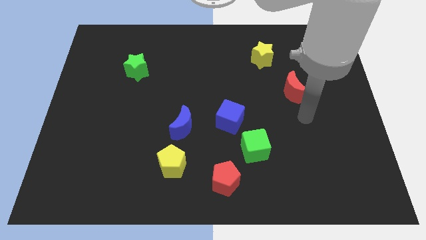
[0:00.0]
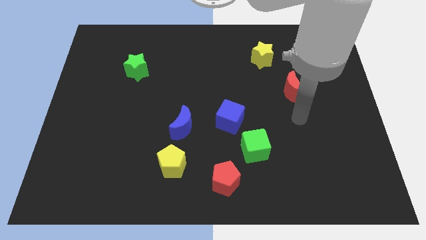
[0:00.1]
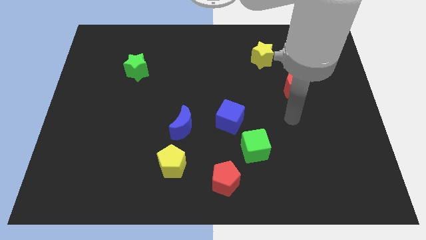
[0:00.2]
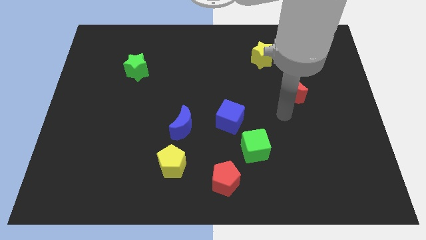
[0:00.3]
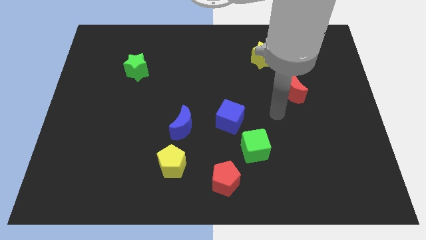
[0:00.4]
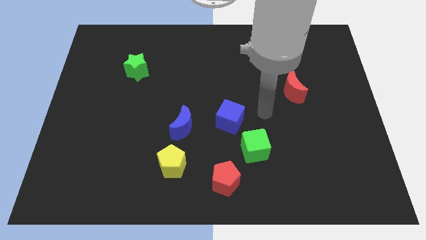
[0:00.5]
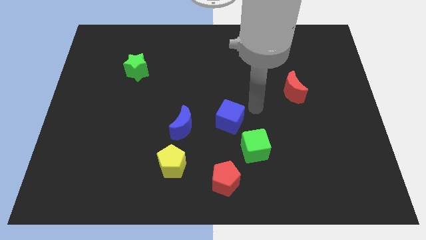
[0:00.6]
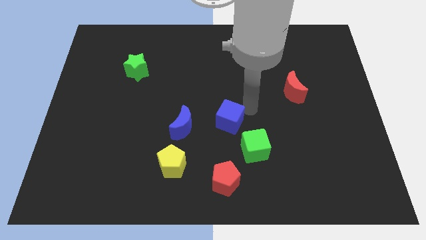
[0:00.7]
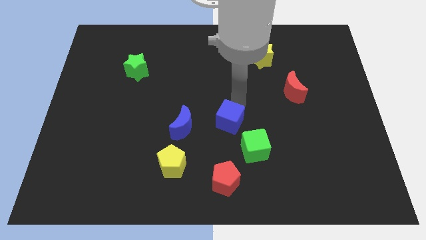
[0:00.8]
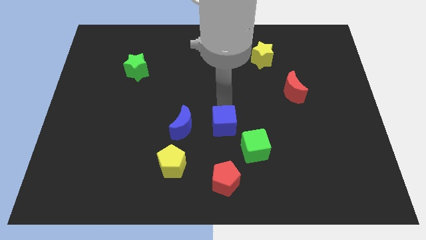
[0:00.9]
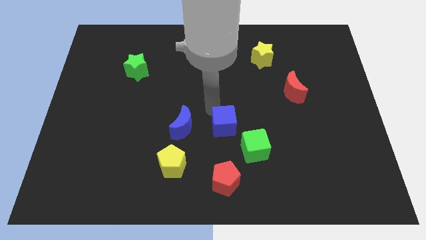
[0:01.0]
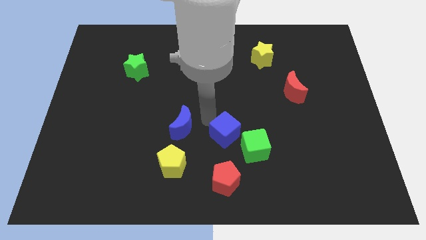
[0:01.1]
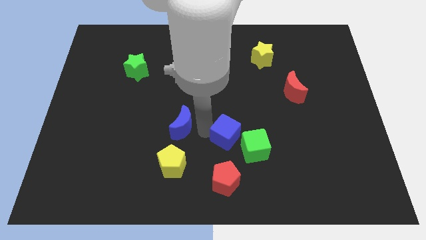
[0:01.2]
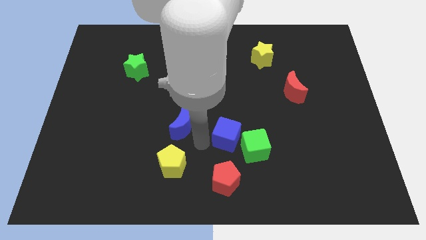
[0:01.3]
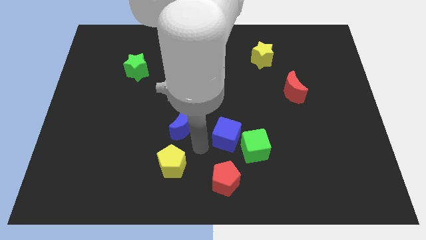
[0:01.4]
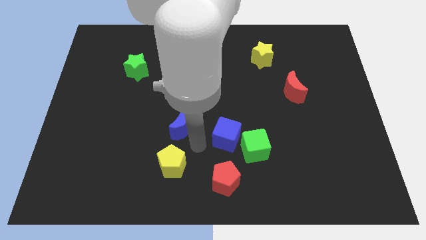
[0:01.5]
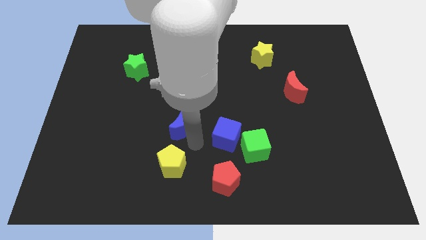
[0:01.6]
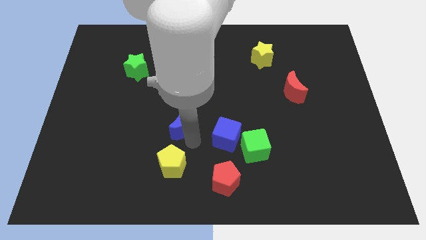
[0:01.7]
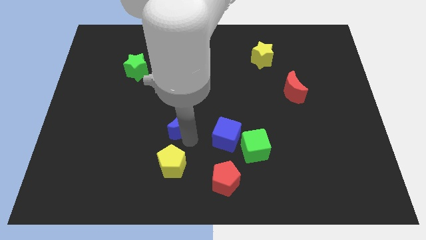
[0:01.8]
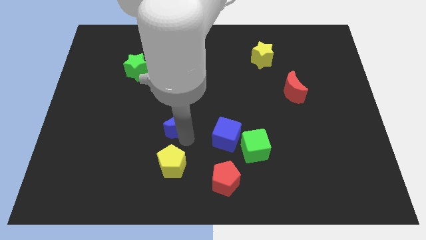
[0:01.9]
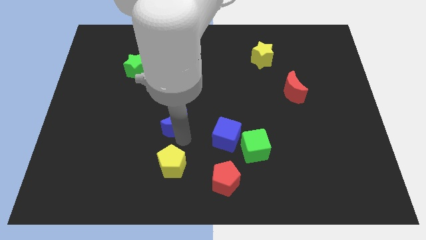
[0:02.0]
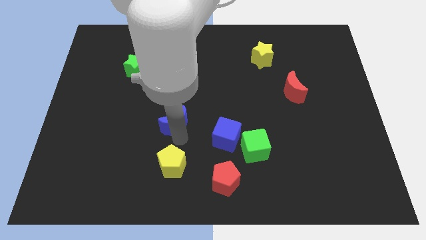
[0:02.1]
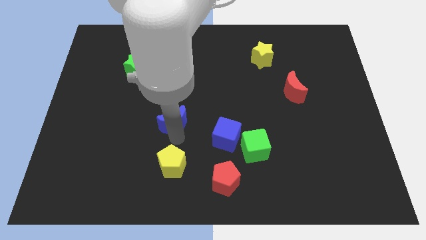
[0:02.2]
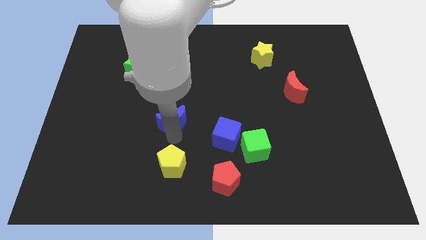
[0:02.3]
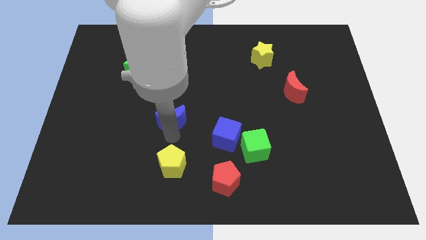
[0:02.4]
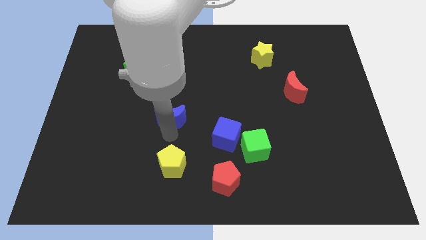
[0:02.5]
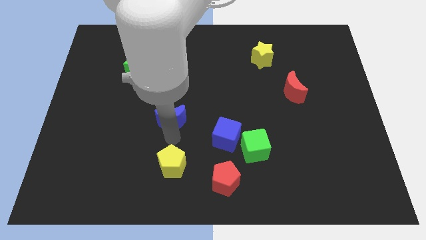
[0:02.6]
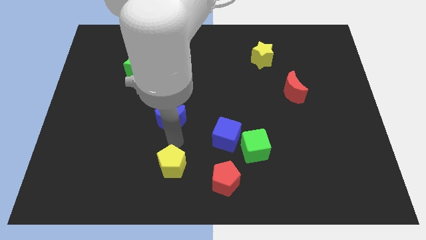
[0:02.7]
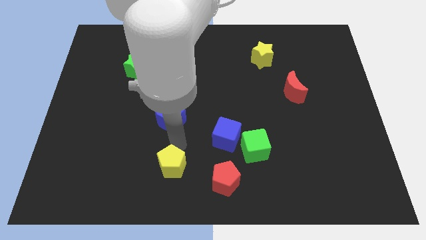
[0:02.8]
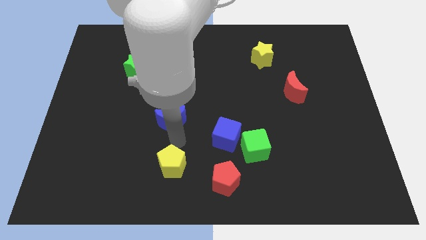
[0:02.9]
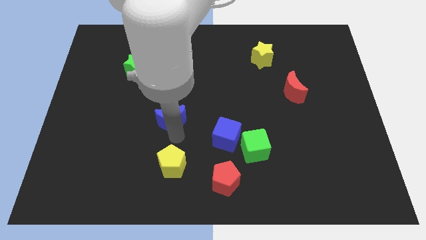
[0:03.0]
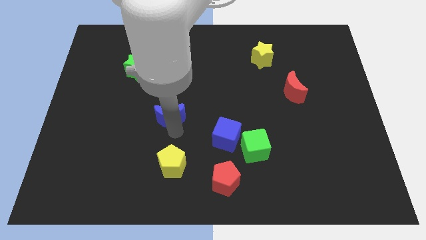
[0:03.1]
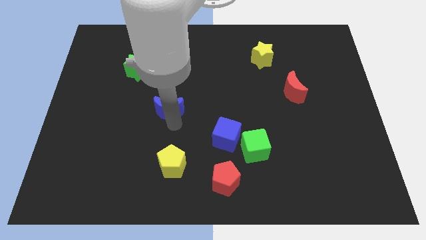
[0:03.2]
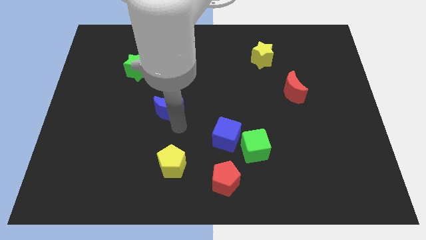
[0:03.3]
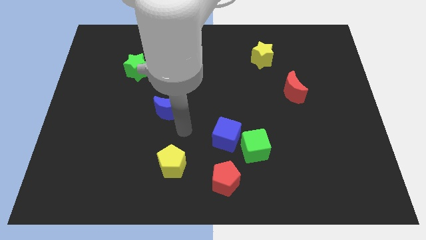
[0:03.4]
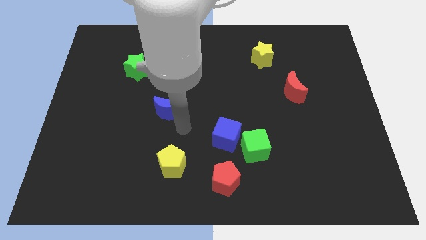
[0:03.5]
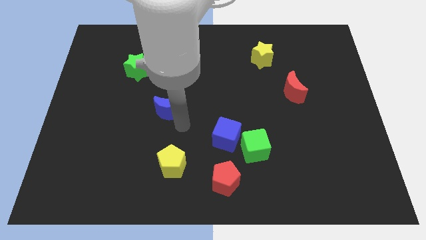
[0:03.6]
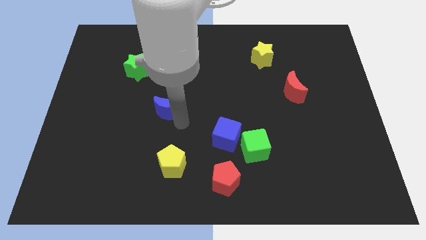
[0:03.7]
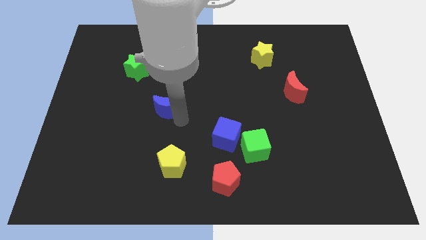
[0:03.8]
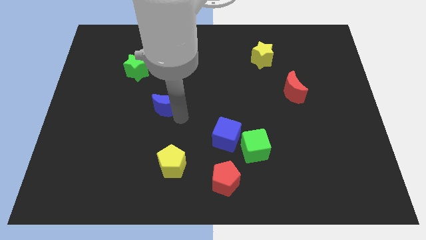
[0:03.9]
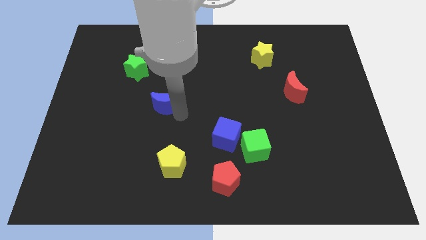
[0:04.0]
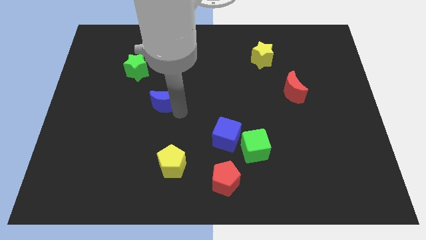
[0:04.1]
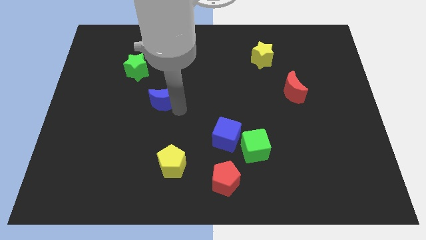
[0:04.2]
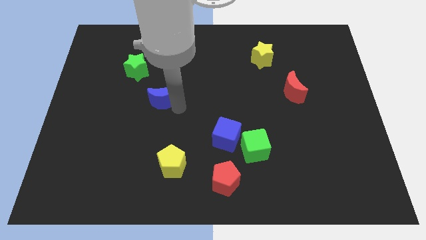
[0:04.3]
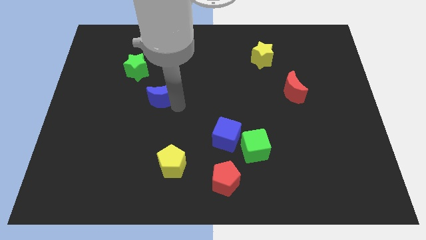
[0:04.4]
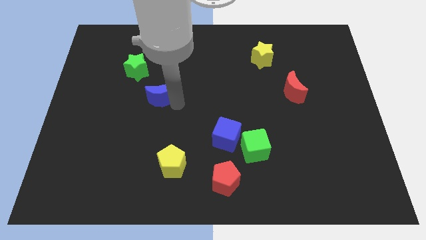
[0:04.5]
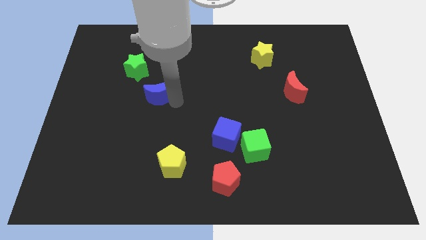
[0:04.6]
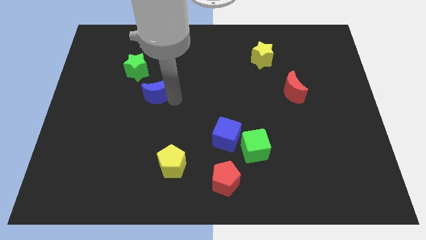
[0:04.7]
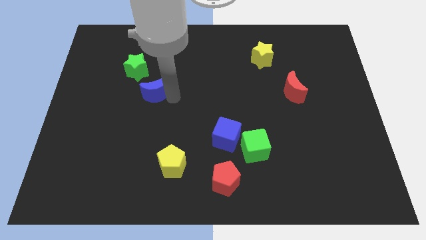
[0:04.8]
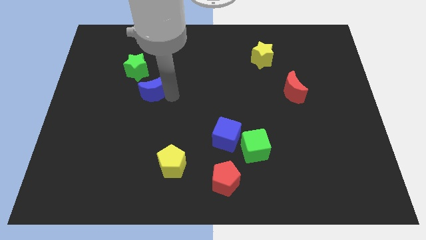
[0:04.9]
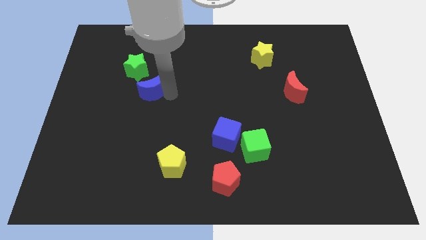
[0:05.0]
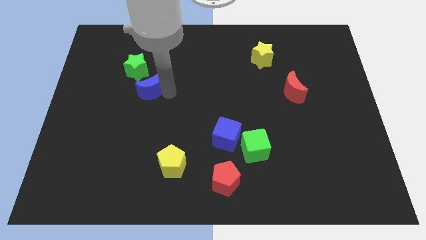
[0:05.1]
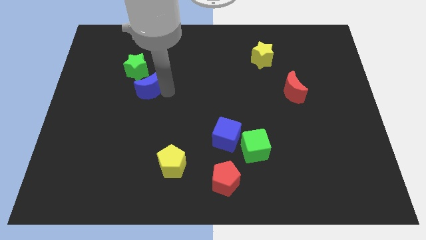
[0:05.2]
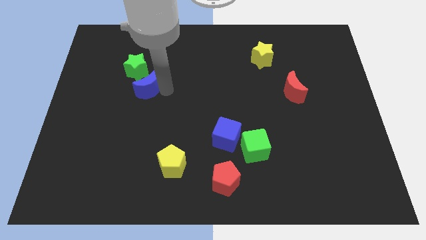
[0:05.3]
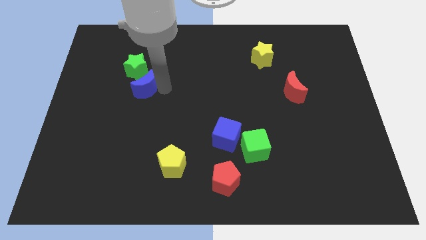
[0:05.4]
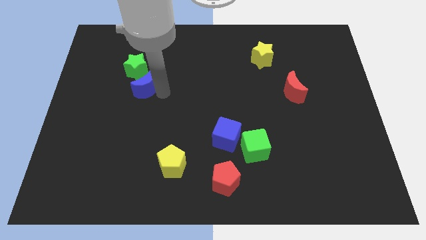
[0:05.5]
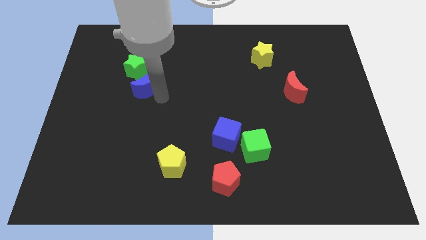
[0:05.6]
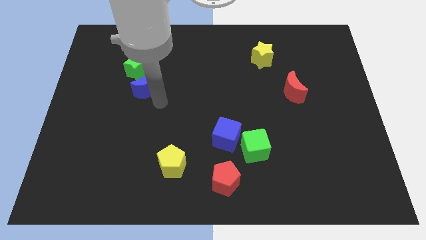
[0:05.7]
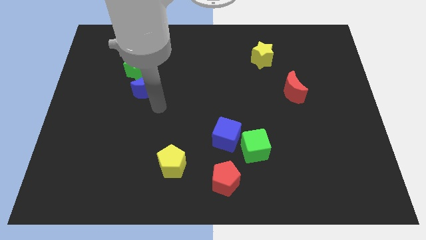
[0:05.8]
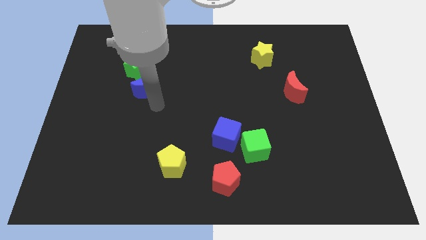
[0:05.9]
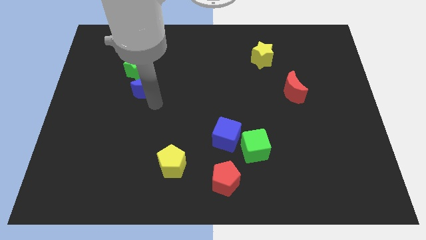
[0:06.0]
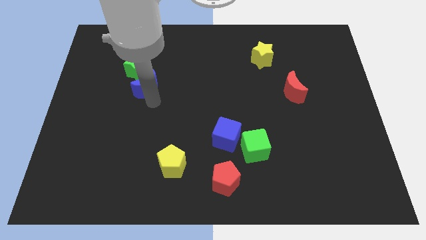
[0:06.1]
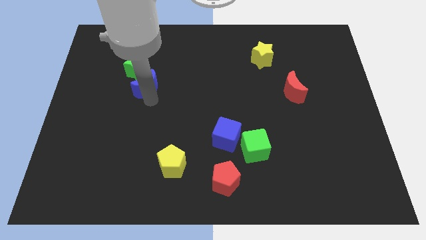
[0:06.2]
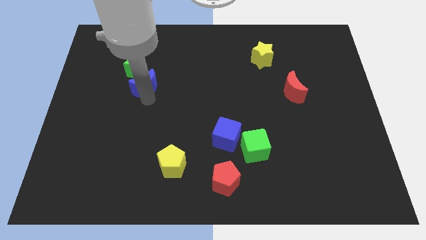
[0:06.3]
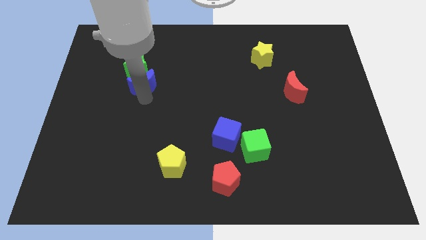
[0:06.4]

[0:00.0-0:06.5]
put the blue moon next to the green star
